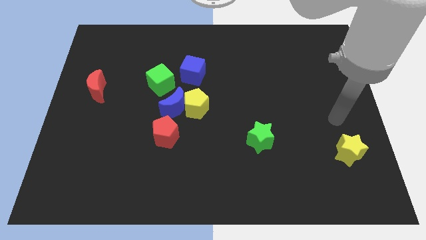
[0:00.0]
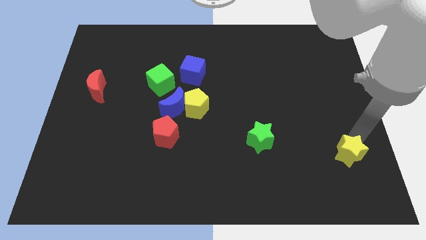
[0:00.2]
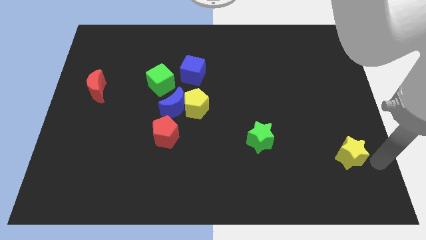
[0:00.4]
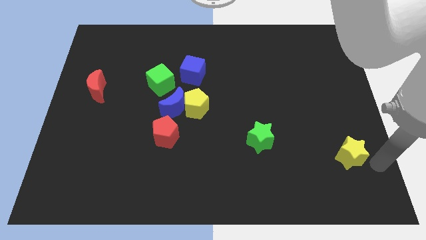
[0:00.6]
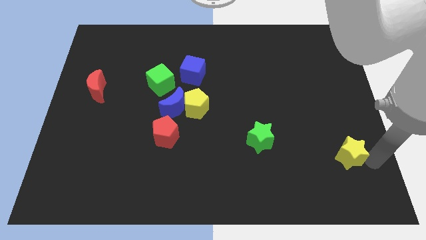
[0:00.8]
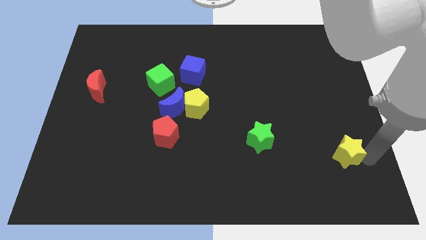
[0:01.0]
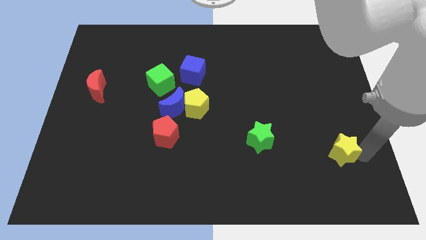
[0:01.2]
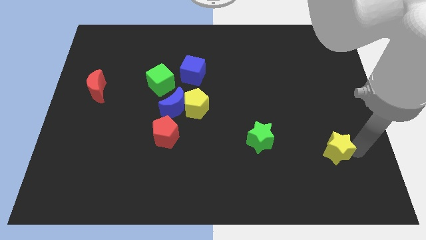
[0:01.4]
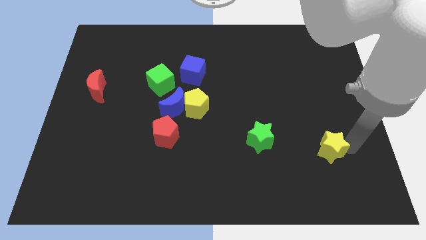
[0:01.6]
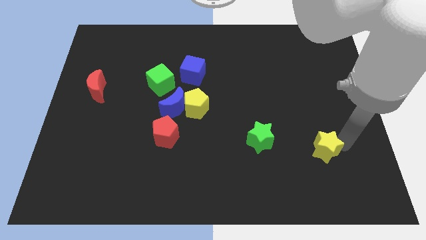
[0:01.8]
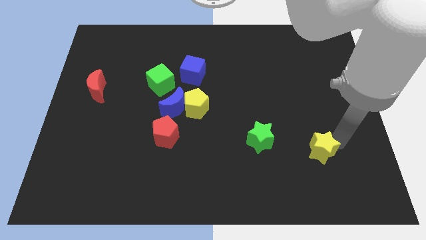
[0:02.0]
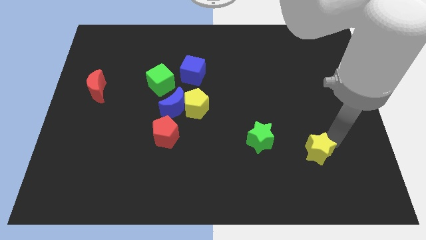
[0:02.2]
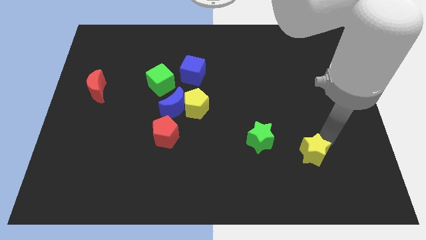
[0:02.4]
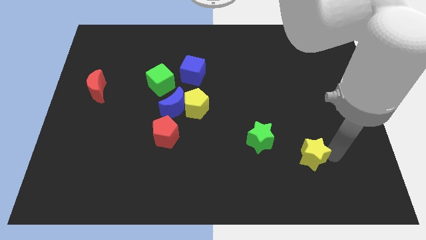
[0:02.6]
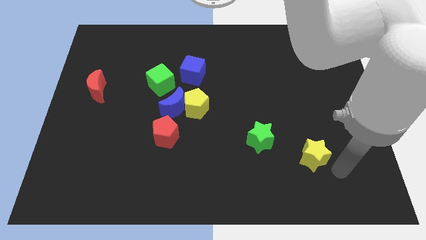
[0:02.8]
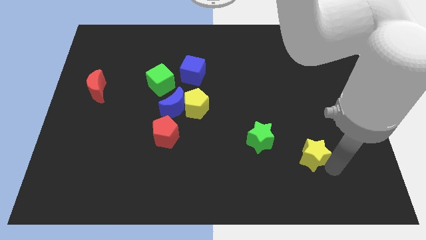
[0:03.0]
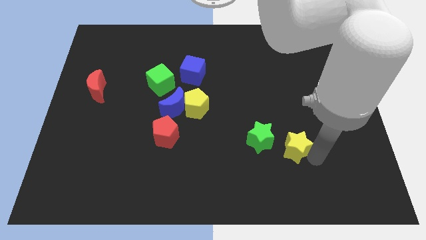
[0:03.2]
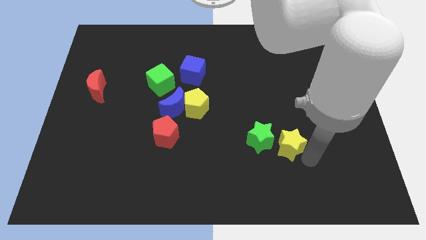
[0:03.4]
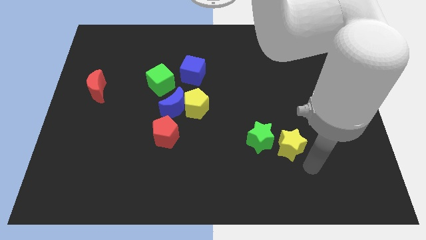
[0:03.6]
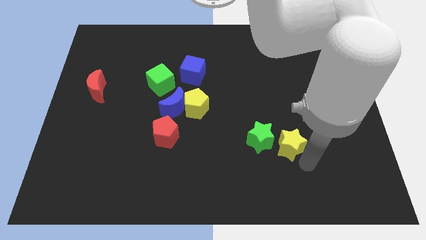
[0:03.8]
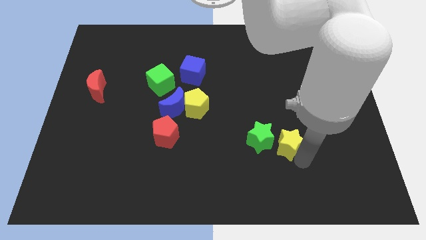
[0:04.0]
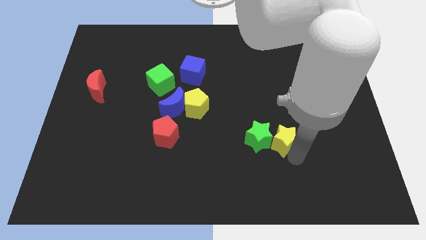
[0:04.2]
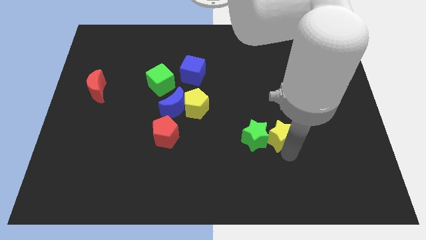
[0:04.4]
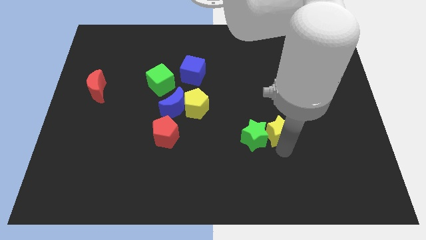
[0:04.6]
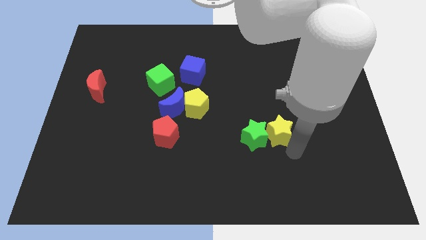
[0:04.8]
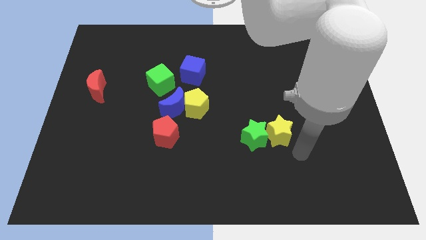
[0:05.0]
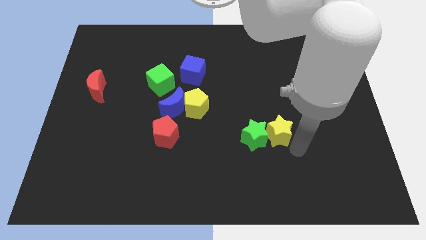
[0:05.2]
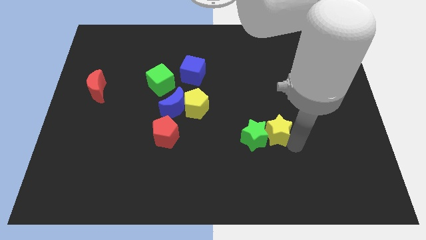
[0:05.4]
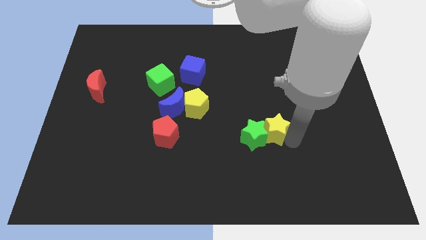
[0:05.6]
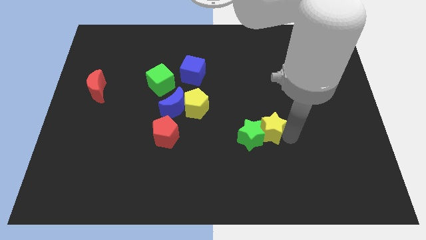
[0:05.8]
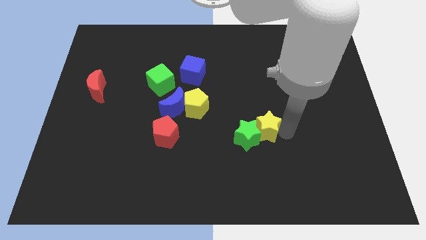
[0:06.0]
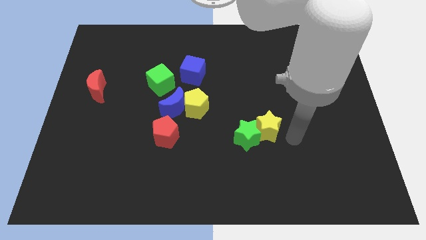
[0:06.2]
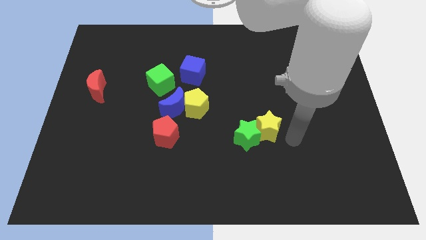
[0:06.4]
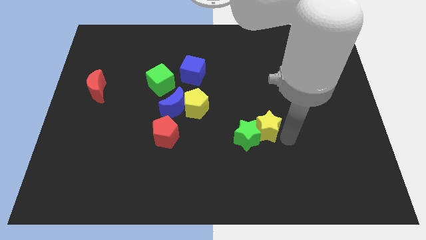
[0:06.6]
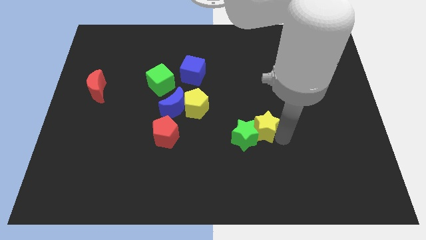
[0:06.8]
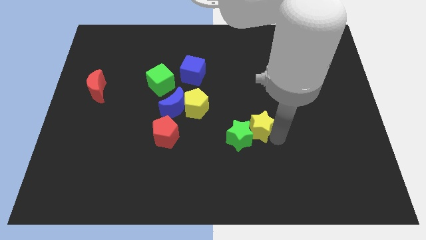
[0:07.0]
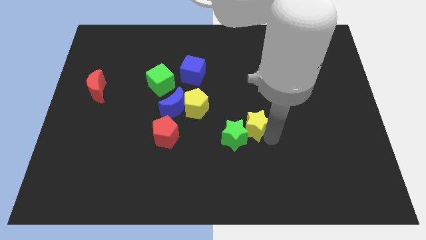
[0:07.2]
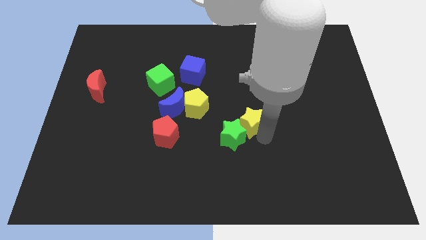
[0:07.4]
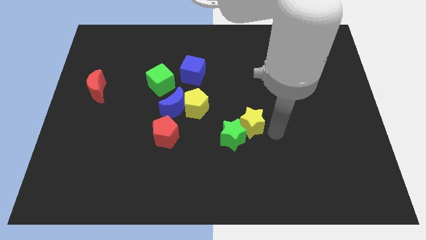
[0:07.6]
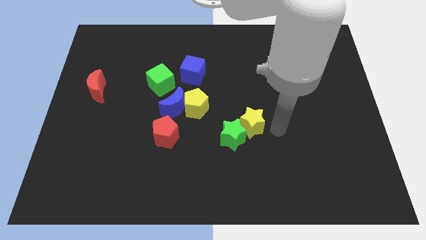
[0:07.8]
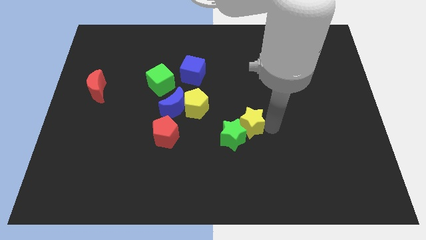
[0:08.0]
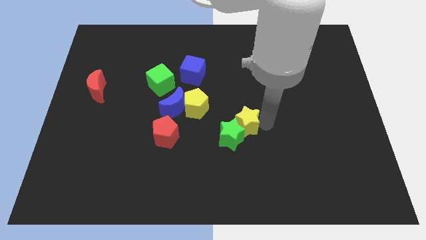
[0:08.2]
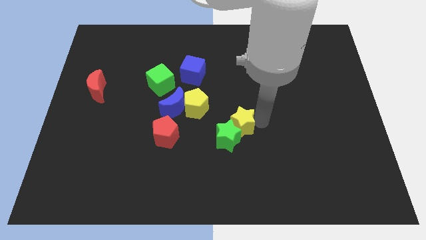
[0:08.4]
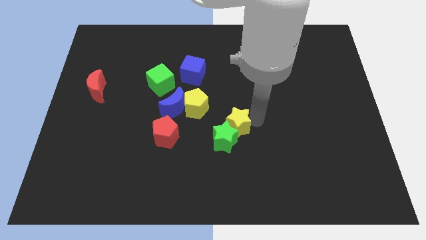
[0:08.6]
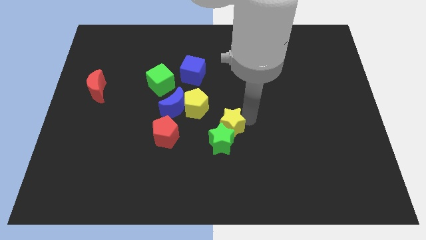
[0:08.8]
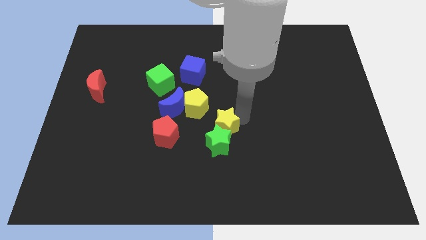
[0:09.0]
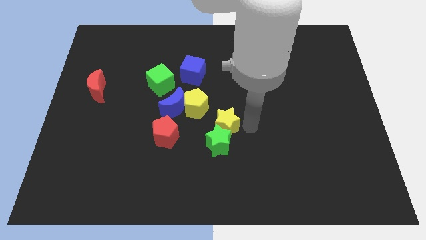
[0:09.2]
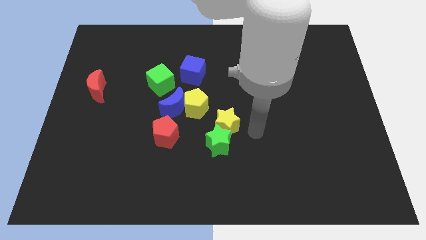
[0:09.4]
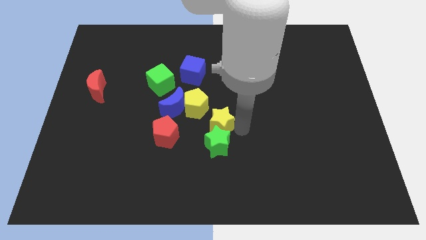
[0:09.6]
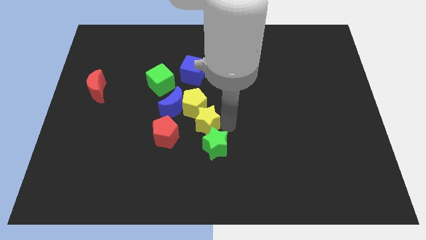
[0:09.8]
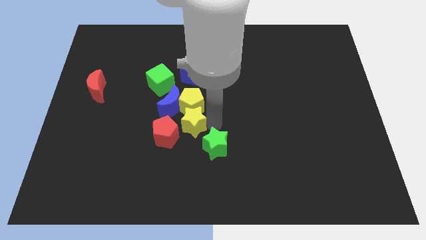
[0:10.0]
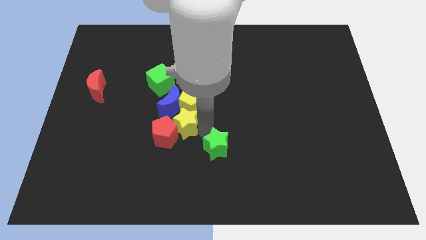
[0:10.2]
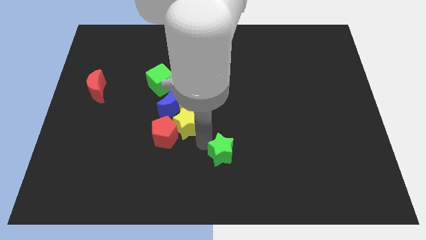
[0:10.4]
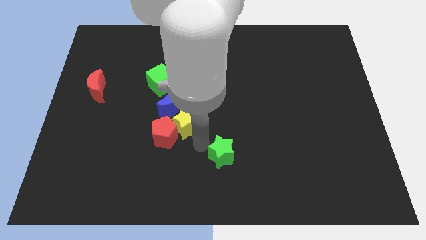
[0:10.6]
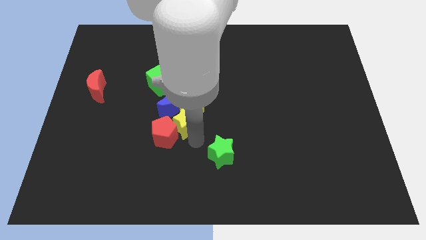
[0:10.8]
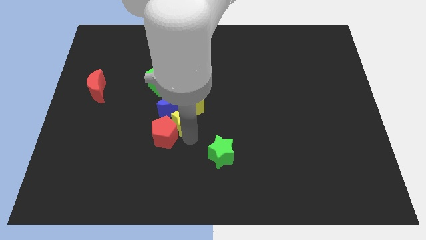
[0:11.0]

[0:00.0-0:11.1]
move the yellow star towards the blue moon

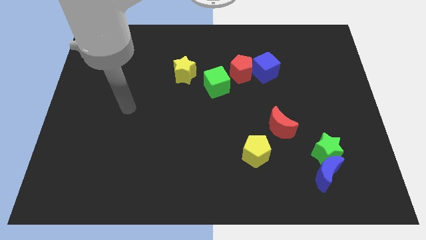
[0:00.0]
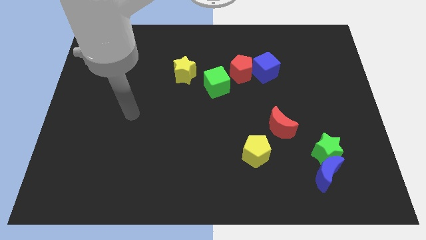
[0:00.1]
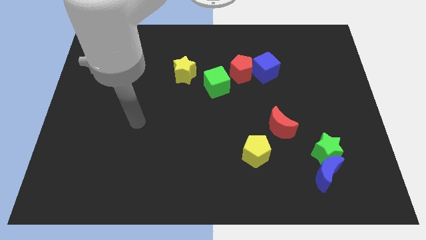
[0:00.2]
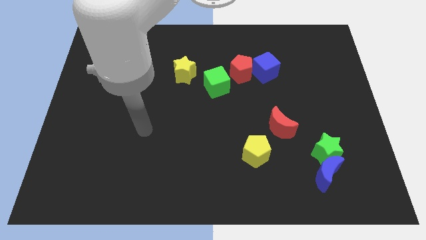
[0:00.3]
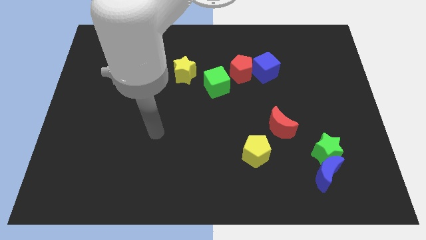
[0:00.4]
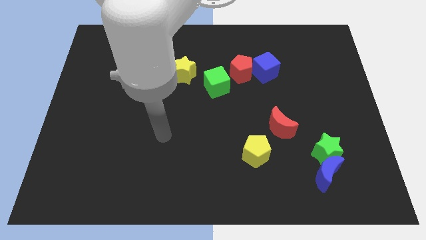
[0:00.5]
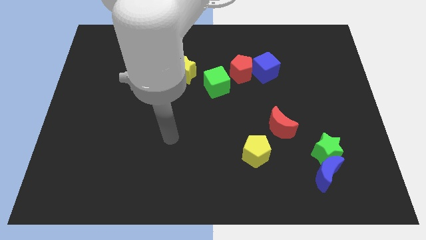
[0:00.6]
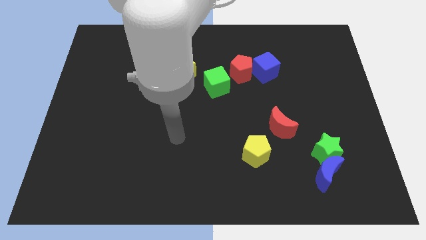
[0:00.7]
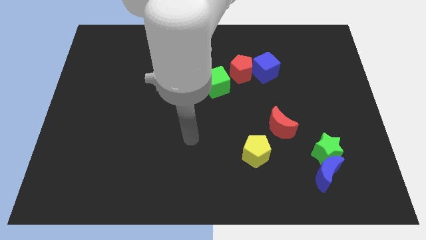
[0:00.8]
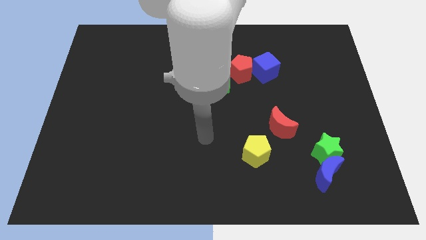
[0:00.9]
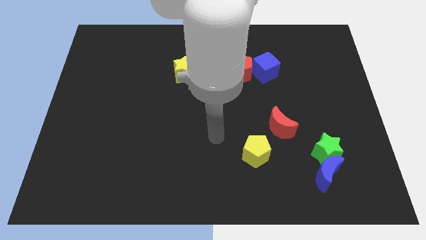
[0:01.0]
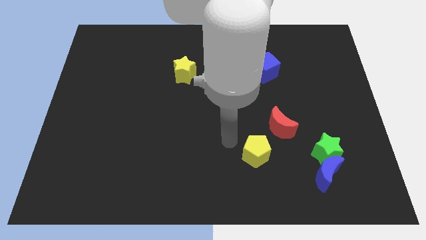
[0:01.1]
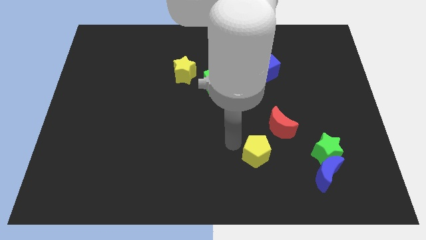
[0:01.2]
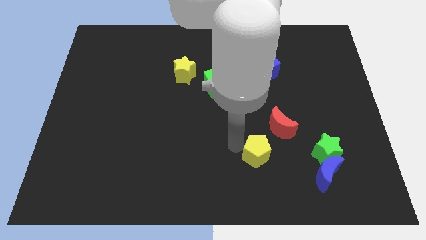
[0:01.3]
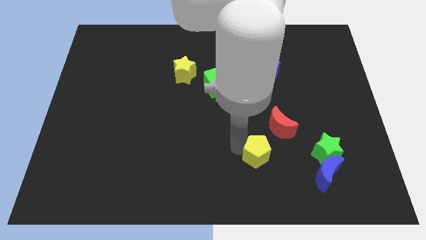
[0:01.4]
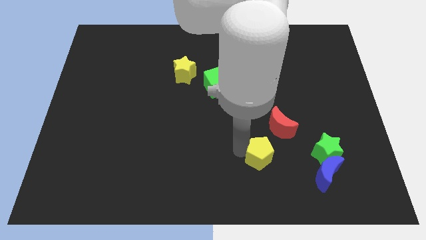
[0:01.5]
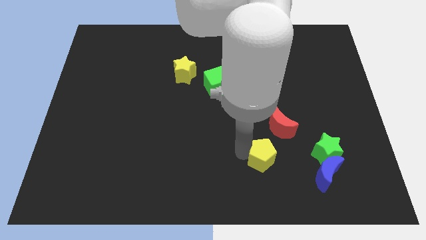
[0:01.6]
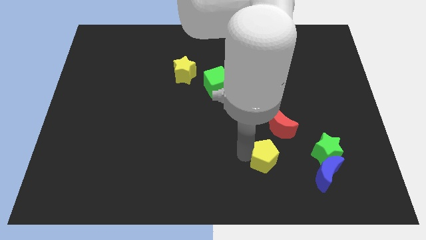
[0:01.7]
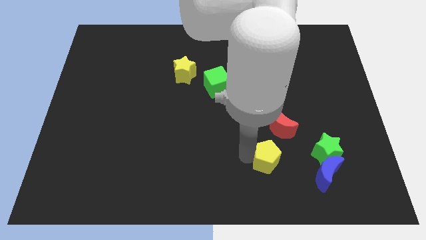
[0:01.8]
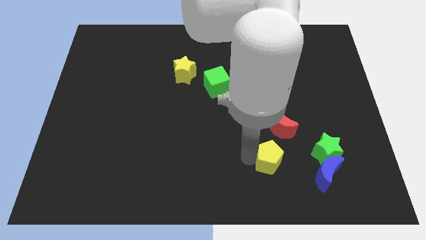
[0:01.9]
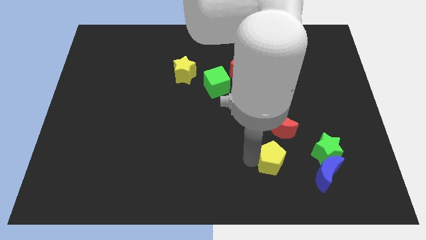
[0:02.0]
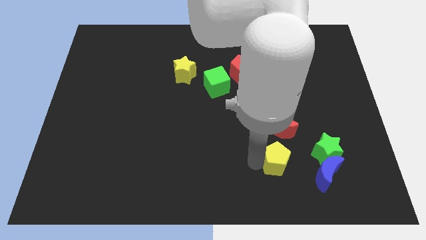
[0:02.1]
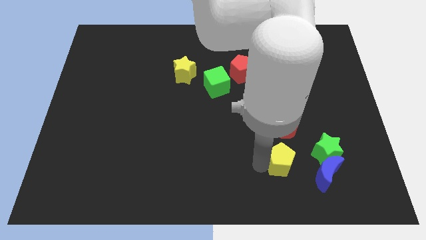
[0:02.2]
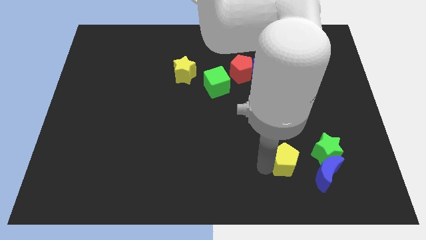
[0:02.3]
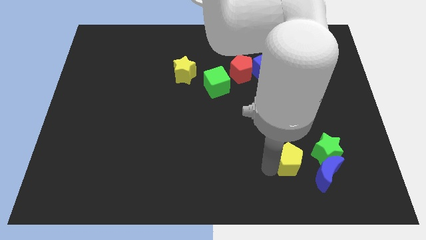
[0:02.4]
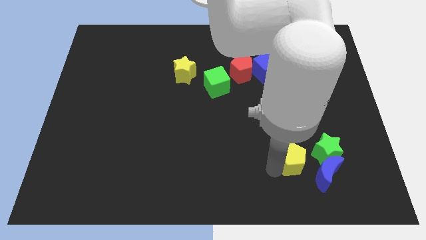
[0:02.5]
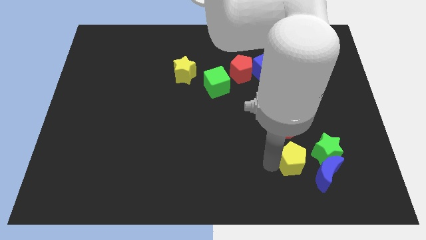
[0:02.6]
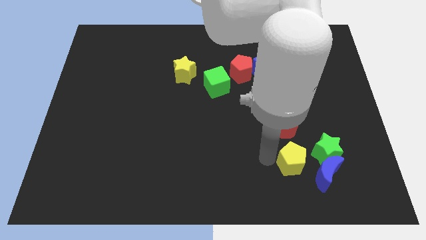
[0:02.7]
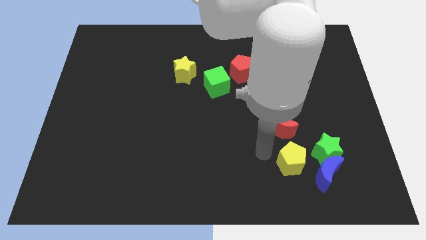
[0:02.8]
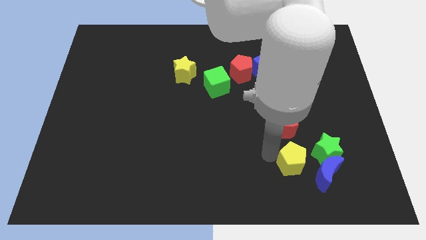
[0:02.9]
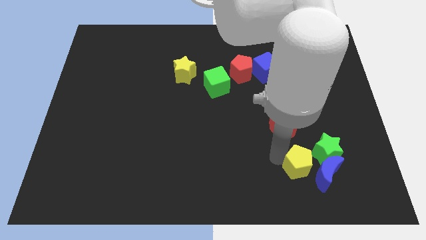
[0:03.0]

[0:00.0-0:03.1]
move the yellow pentagon close to the blue moon
